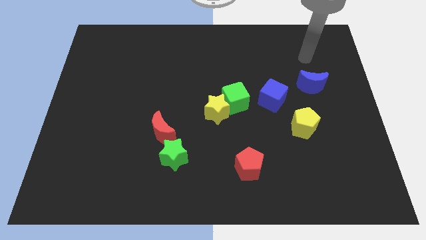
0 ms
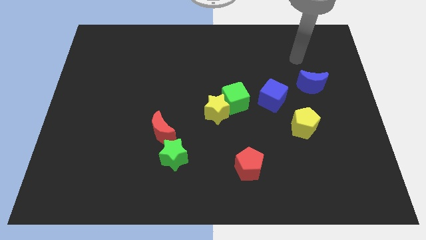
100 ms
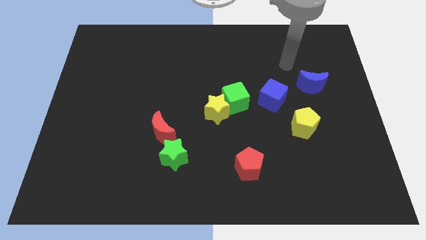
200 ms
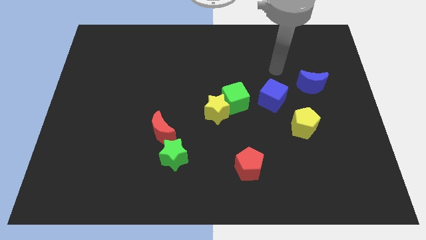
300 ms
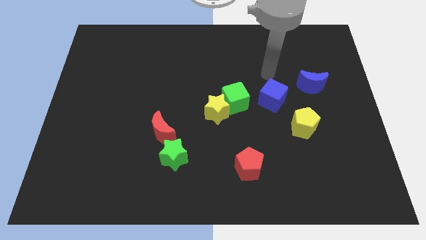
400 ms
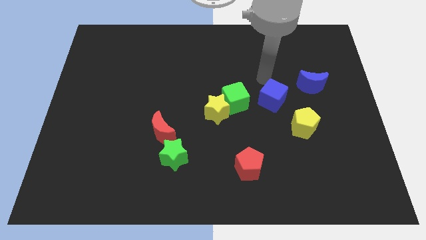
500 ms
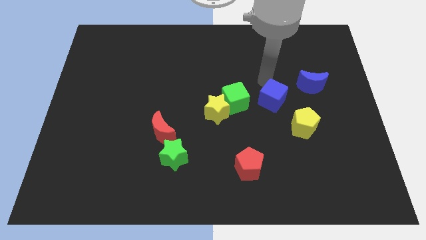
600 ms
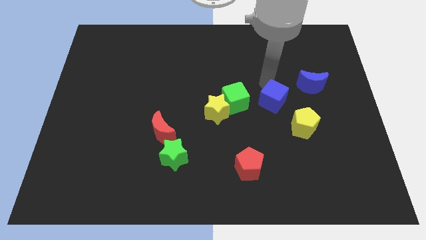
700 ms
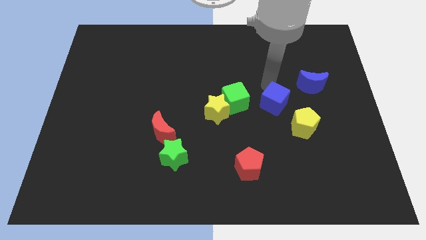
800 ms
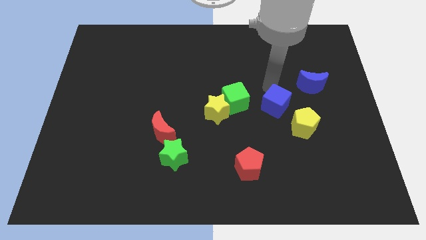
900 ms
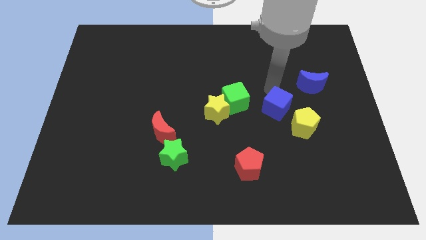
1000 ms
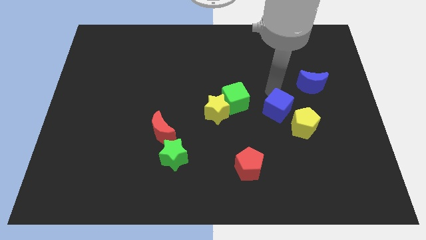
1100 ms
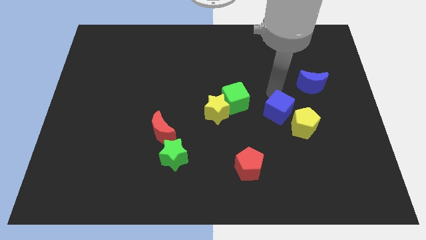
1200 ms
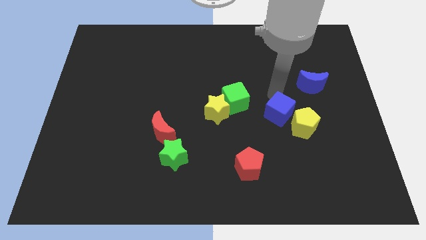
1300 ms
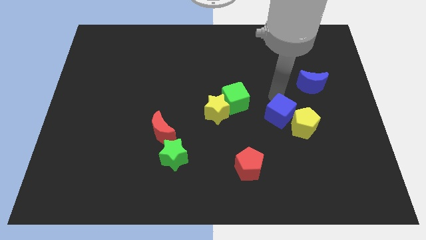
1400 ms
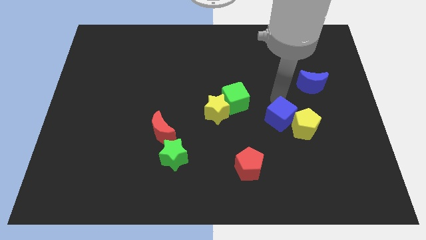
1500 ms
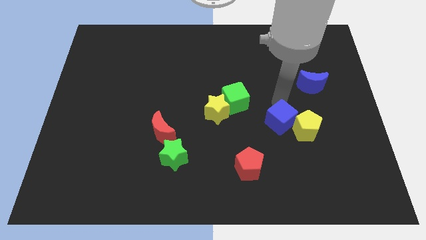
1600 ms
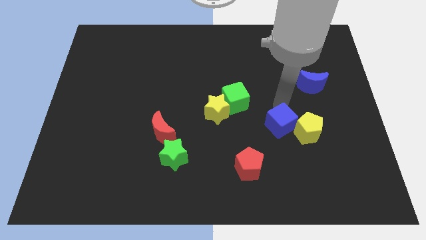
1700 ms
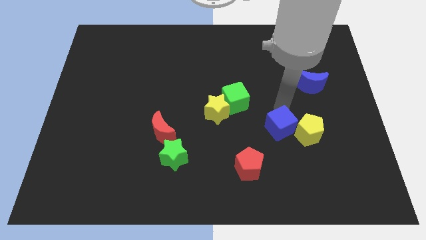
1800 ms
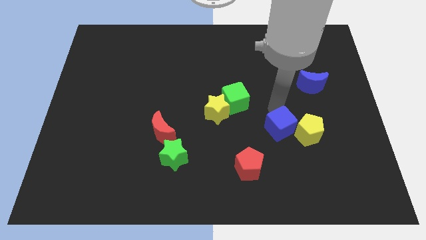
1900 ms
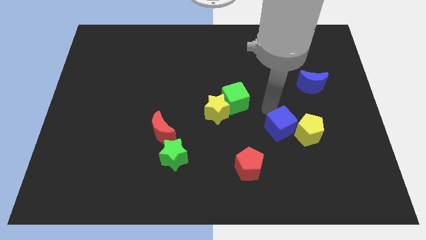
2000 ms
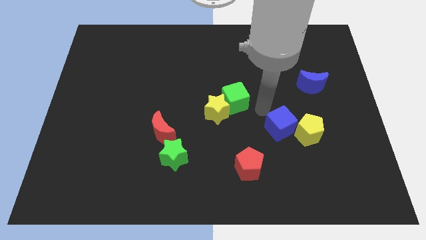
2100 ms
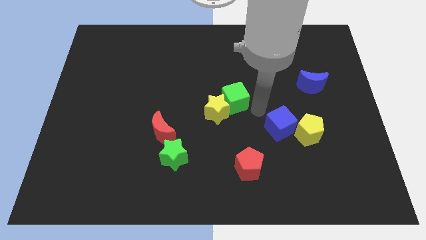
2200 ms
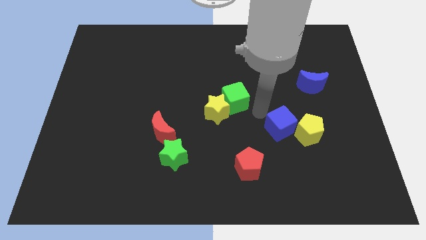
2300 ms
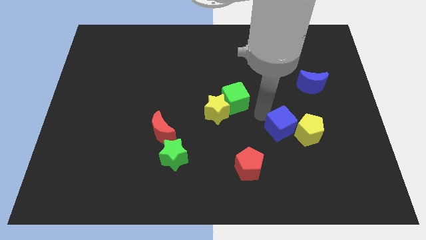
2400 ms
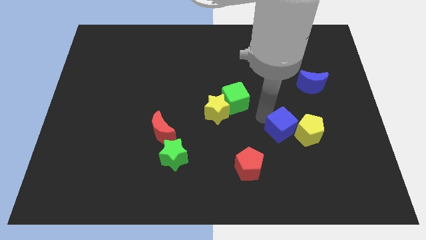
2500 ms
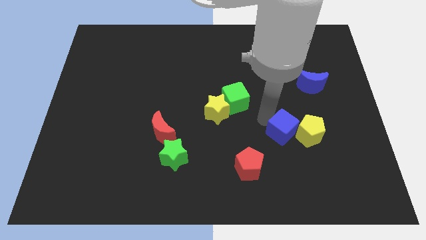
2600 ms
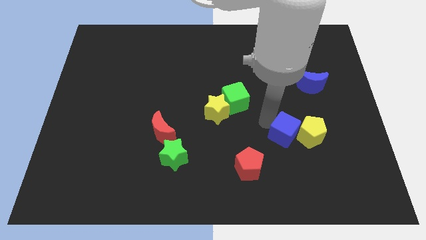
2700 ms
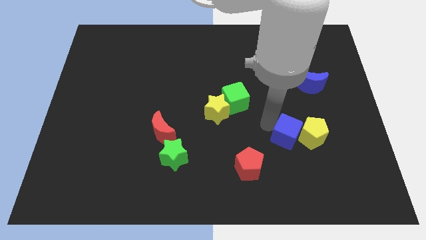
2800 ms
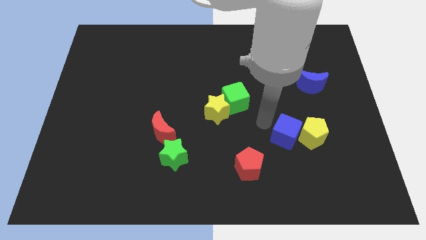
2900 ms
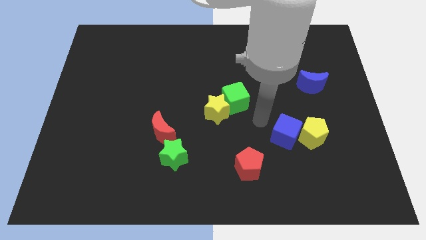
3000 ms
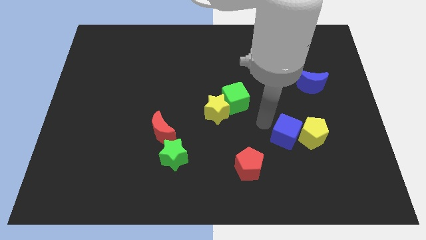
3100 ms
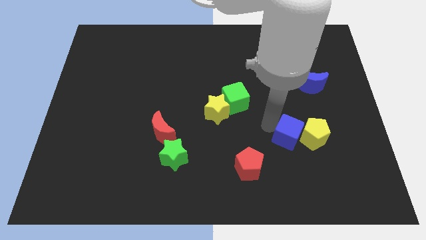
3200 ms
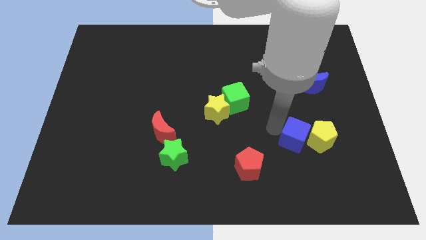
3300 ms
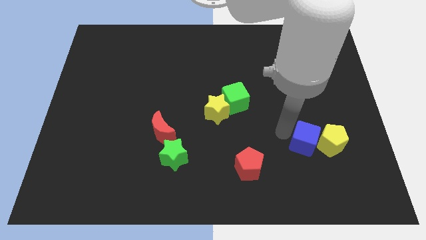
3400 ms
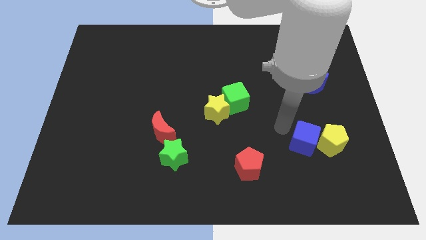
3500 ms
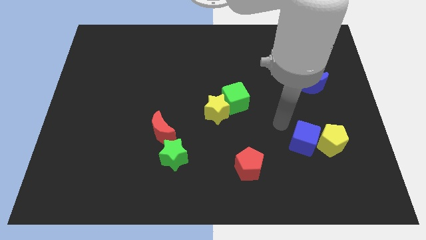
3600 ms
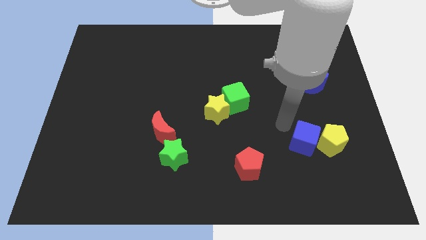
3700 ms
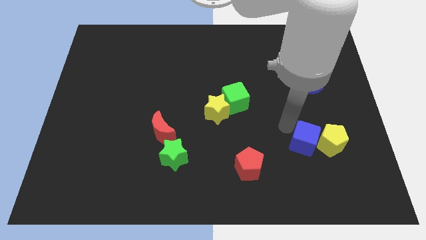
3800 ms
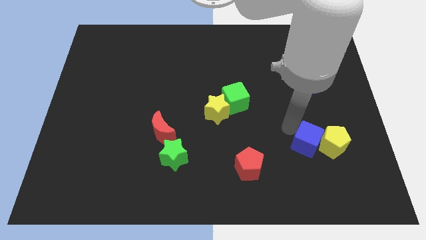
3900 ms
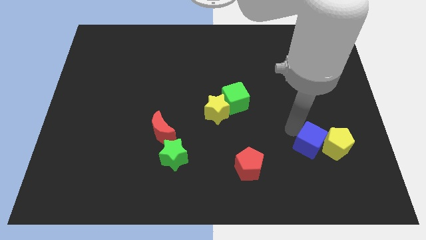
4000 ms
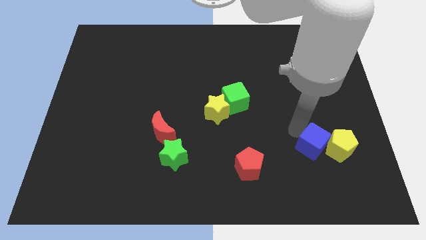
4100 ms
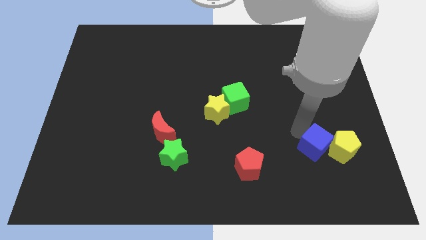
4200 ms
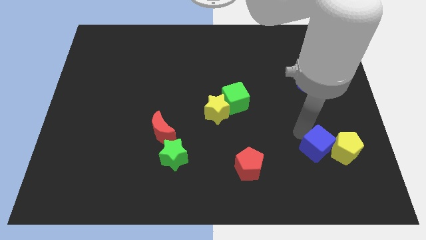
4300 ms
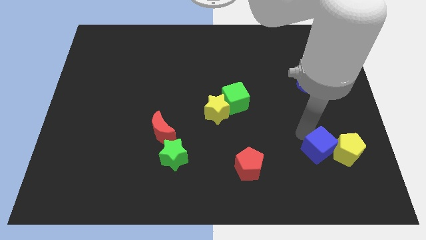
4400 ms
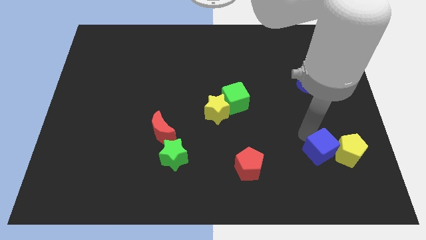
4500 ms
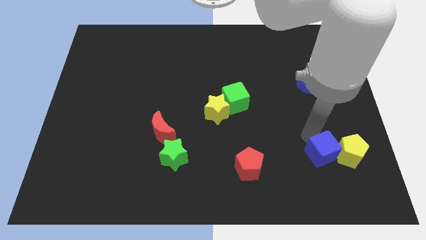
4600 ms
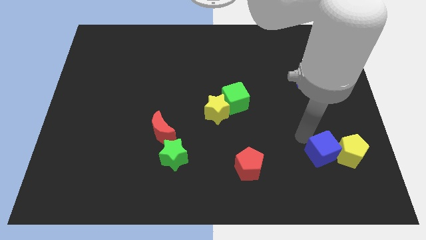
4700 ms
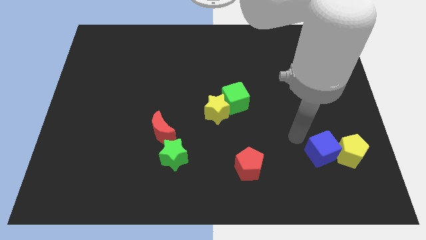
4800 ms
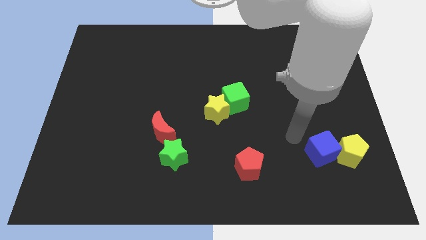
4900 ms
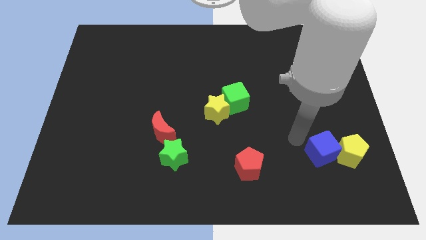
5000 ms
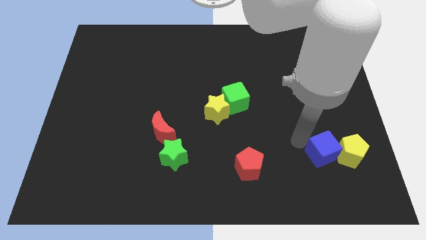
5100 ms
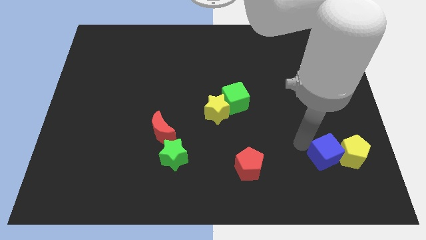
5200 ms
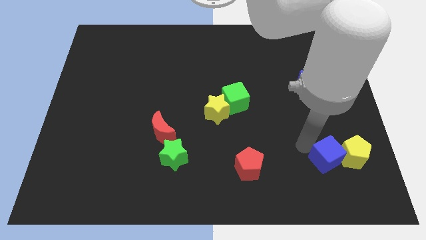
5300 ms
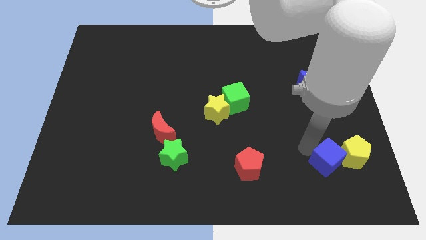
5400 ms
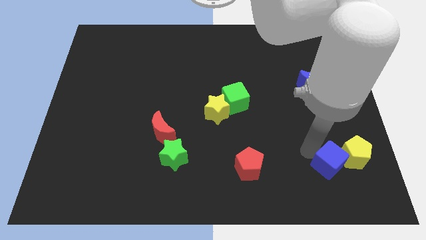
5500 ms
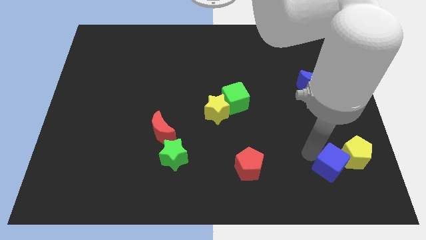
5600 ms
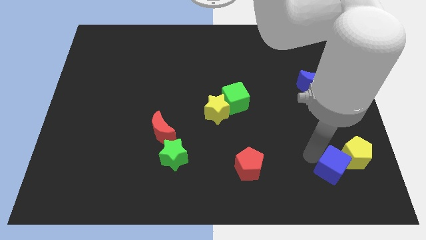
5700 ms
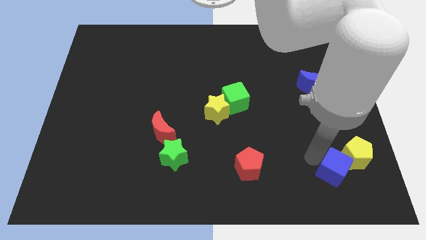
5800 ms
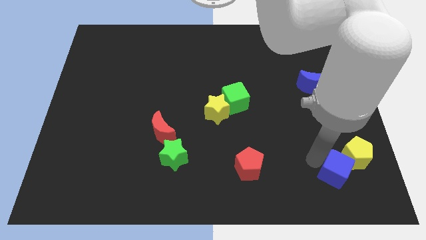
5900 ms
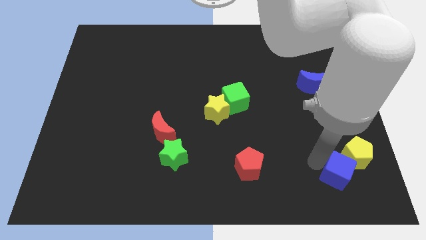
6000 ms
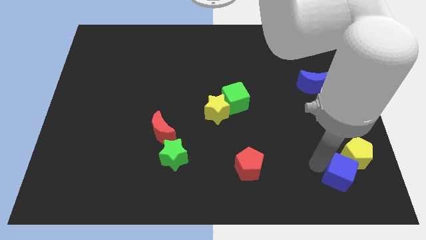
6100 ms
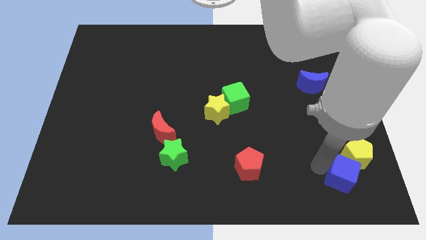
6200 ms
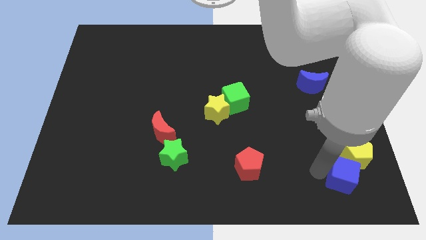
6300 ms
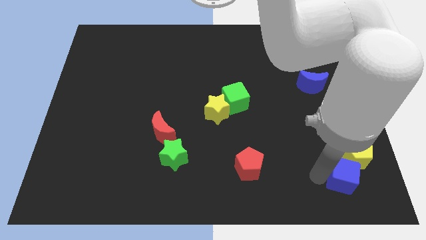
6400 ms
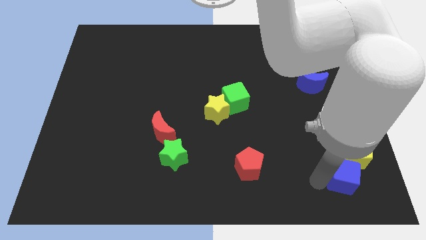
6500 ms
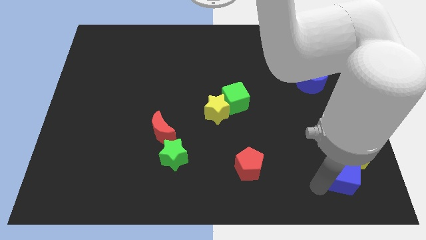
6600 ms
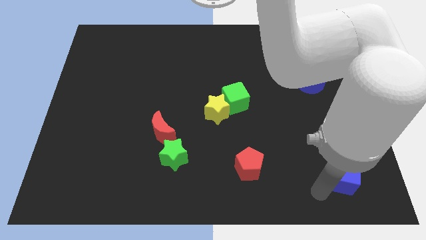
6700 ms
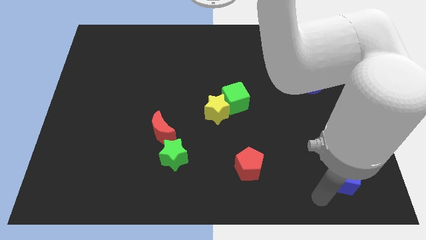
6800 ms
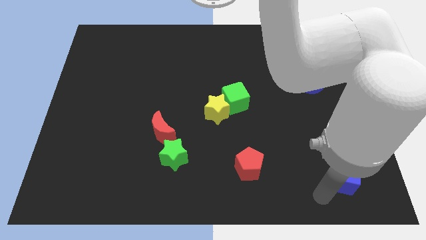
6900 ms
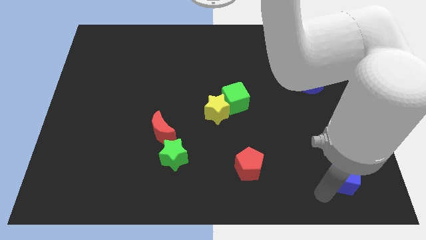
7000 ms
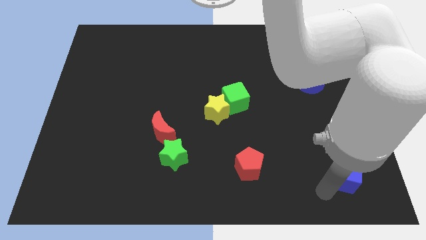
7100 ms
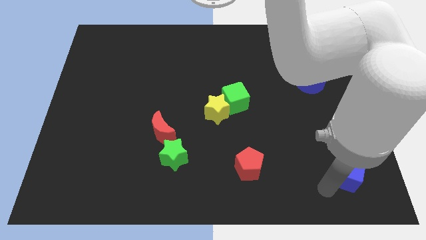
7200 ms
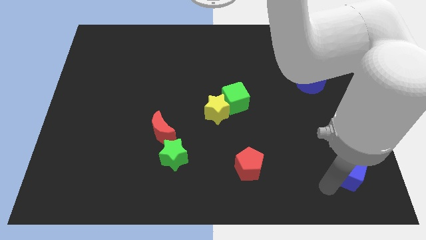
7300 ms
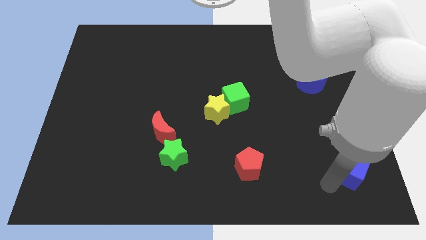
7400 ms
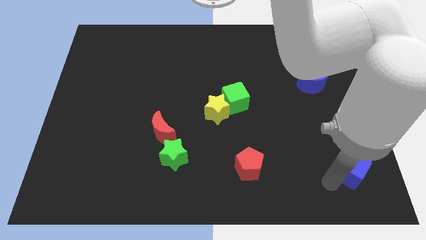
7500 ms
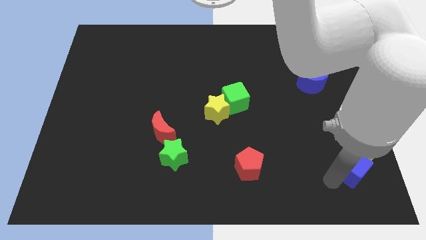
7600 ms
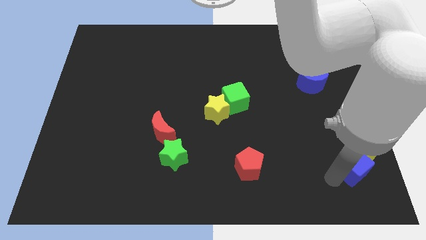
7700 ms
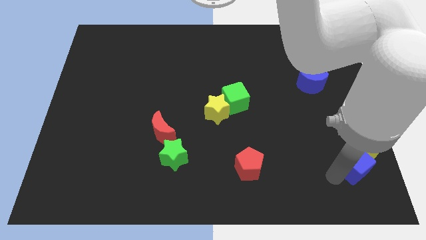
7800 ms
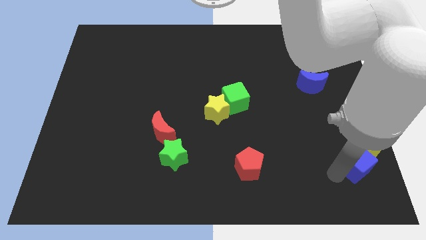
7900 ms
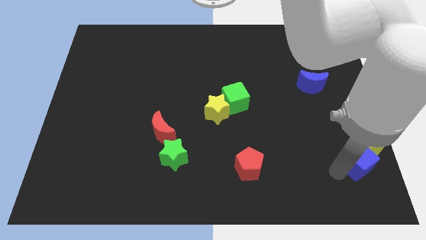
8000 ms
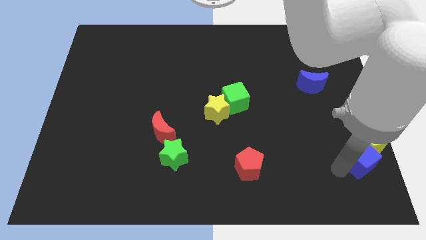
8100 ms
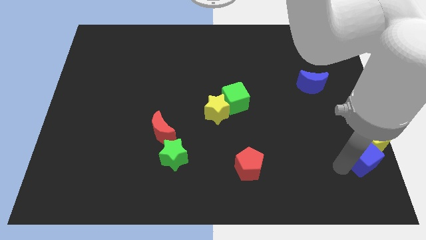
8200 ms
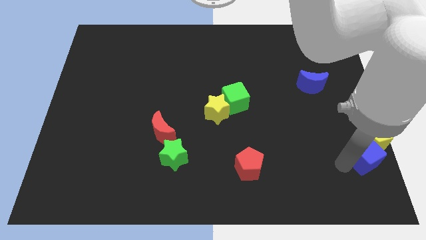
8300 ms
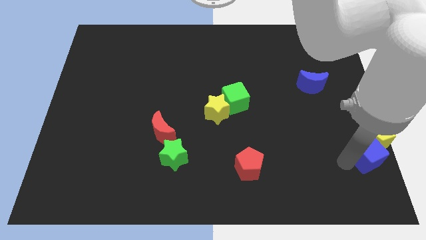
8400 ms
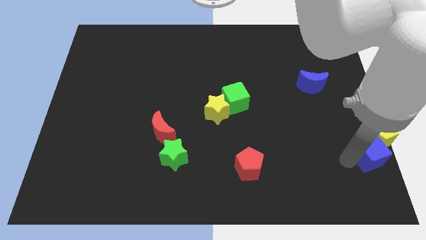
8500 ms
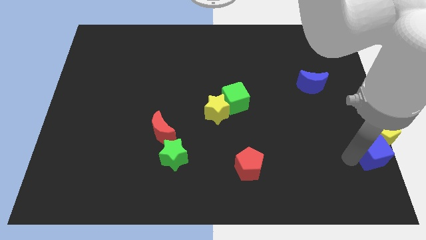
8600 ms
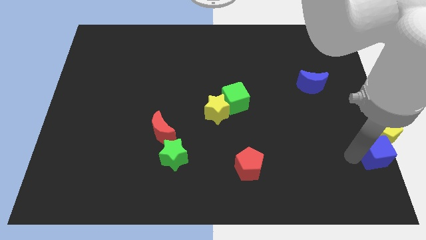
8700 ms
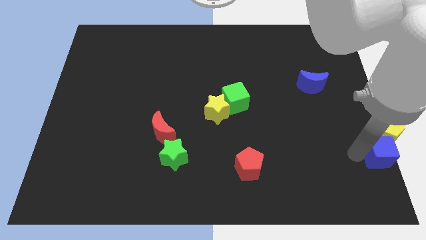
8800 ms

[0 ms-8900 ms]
push the blue cube to the lower right corner
